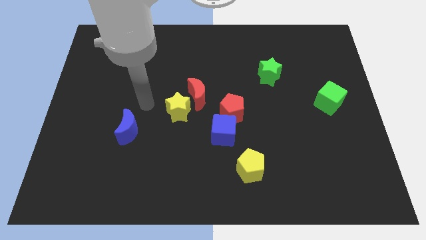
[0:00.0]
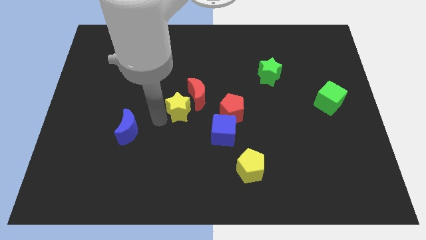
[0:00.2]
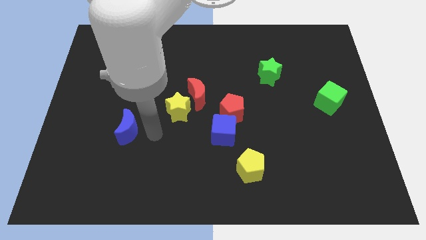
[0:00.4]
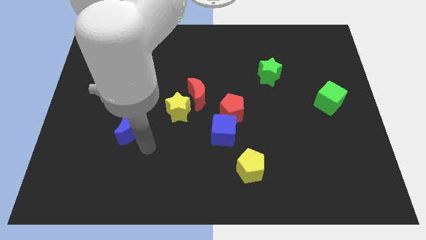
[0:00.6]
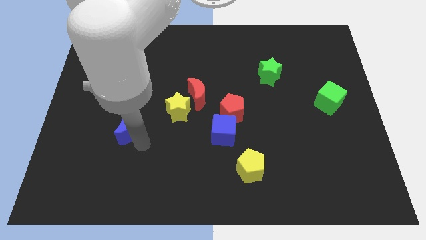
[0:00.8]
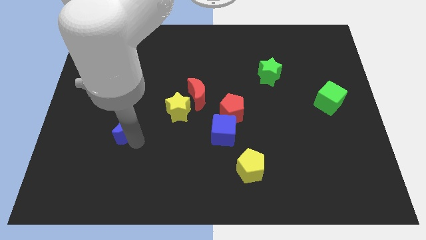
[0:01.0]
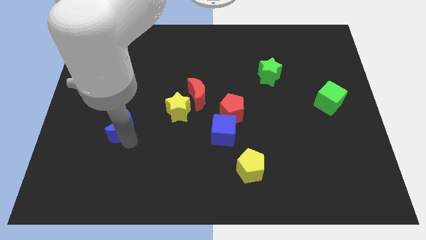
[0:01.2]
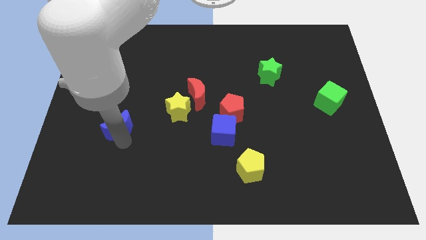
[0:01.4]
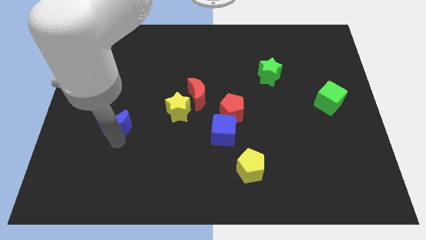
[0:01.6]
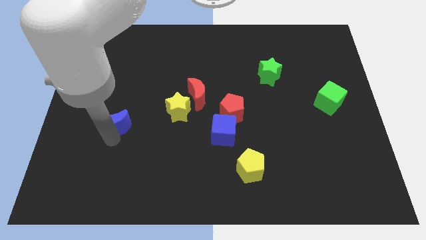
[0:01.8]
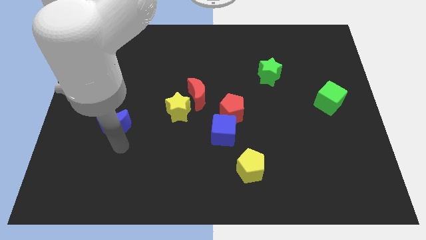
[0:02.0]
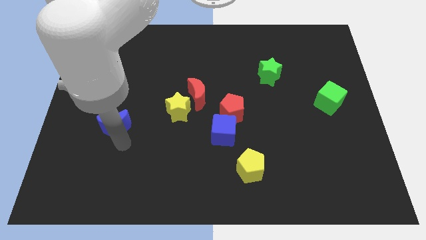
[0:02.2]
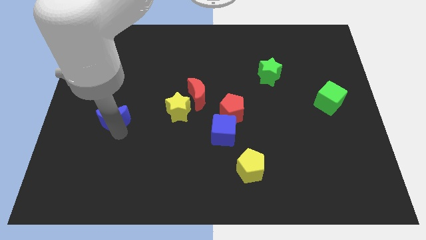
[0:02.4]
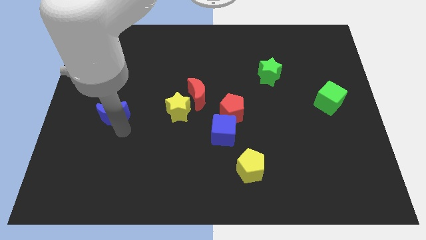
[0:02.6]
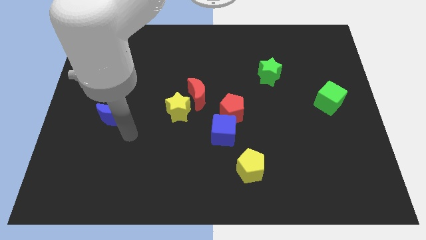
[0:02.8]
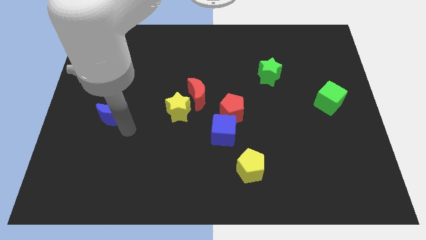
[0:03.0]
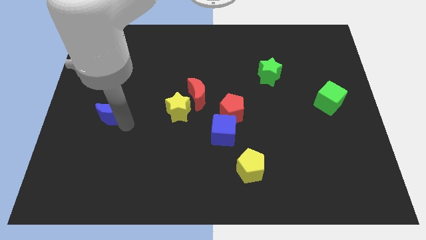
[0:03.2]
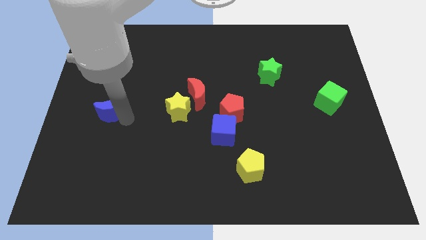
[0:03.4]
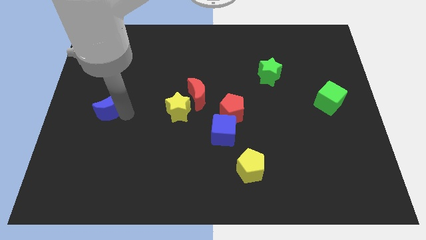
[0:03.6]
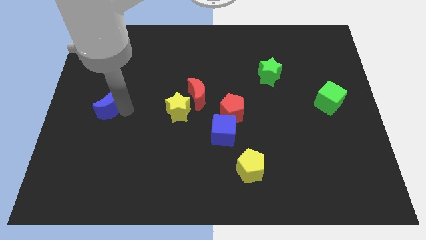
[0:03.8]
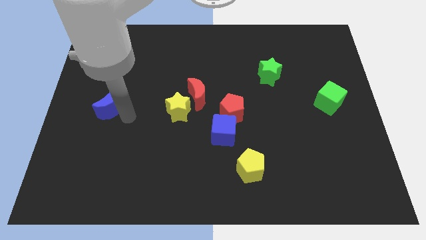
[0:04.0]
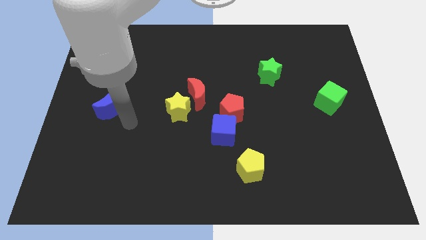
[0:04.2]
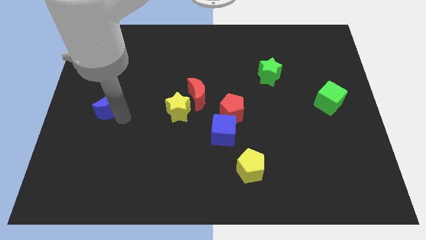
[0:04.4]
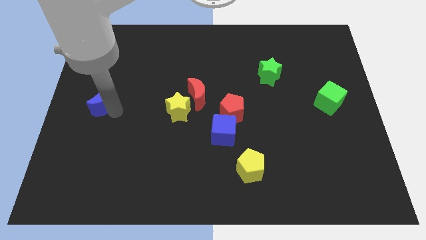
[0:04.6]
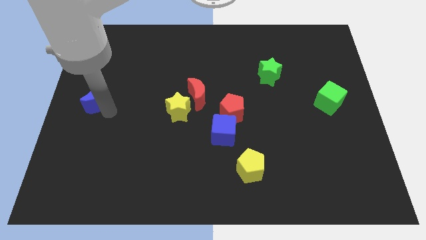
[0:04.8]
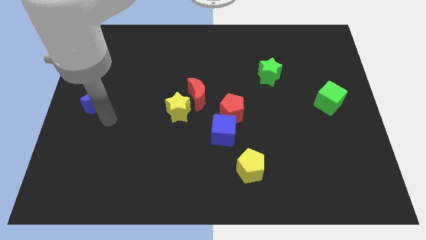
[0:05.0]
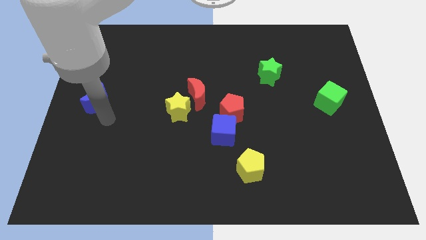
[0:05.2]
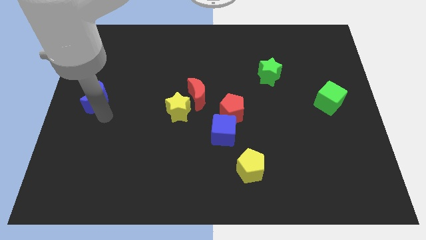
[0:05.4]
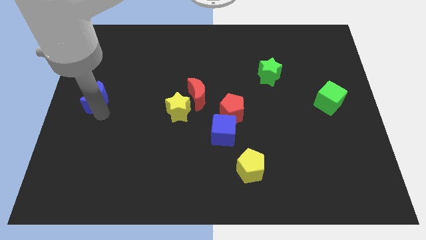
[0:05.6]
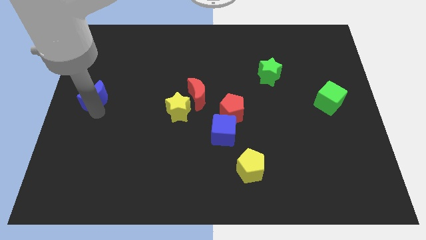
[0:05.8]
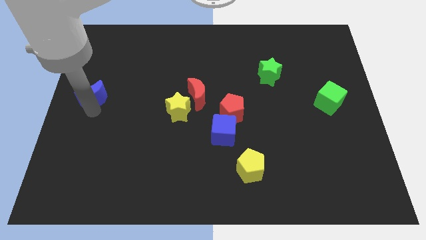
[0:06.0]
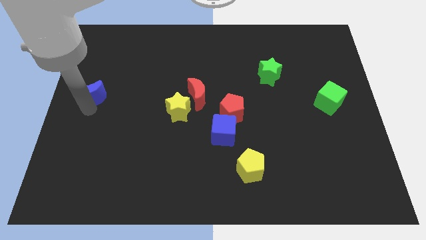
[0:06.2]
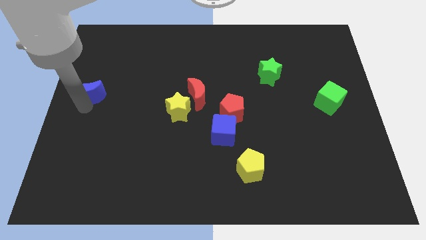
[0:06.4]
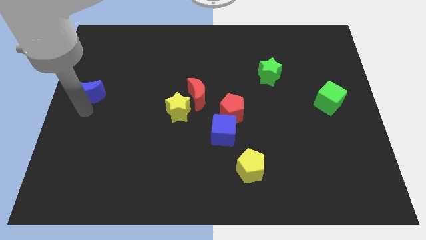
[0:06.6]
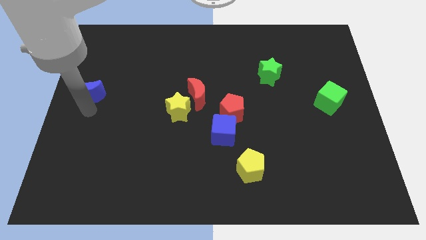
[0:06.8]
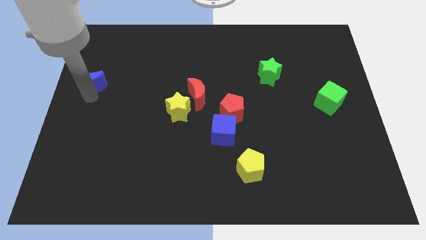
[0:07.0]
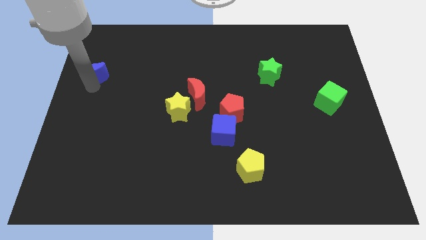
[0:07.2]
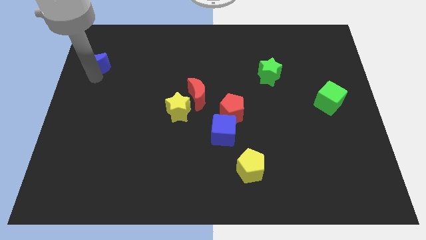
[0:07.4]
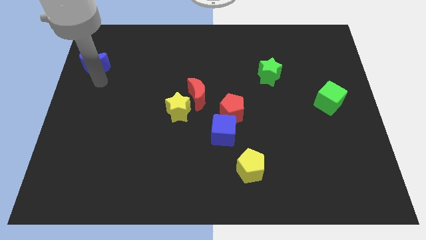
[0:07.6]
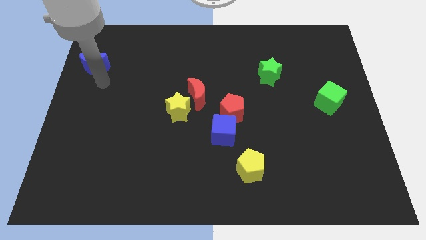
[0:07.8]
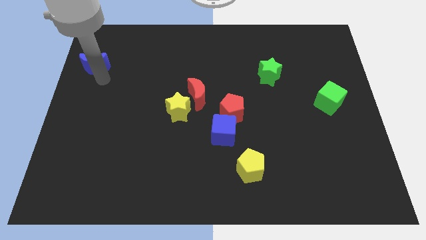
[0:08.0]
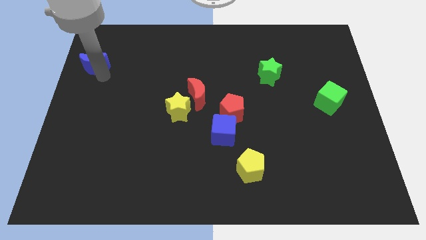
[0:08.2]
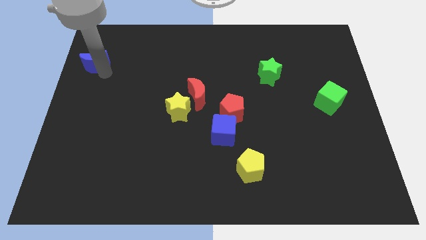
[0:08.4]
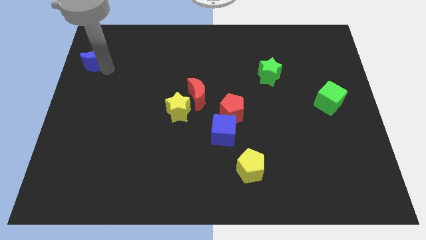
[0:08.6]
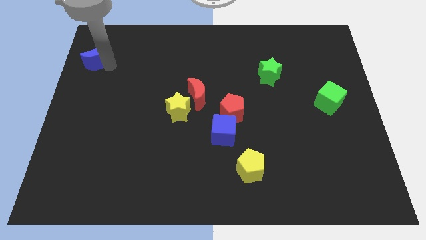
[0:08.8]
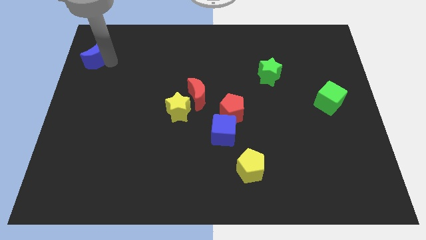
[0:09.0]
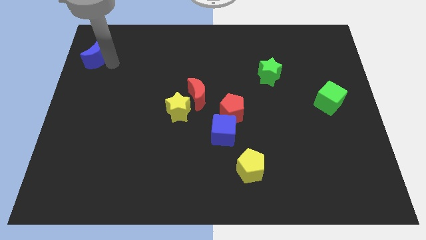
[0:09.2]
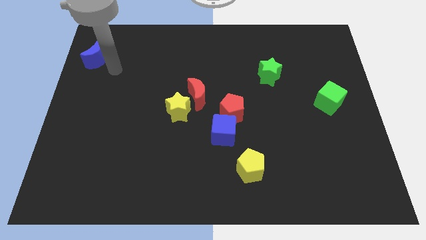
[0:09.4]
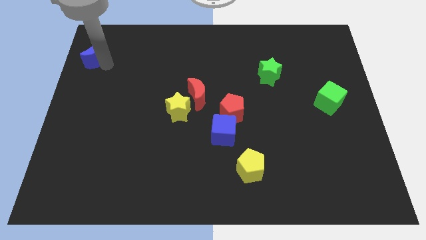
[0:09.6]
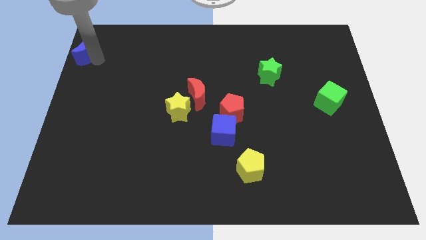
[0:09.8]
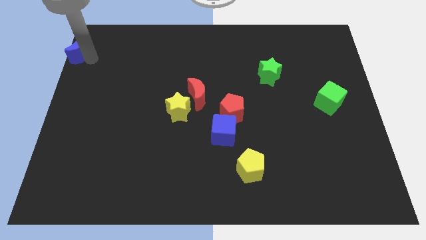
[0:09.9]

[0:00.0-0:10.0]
push the blue moon to the top left

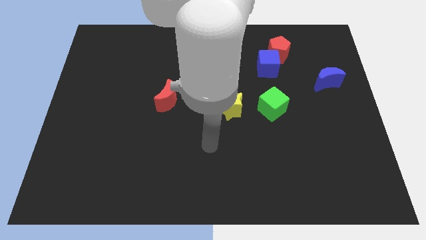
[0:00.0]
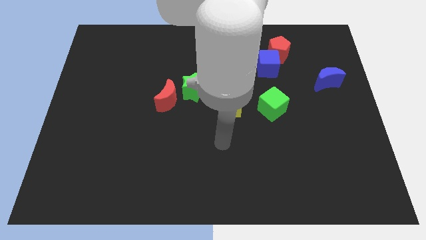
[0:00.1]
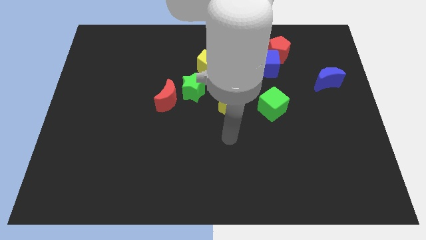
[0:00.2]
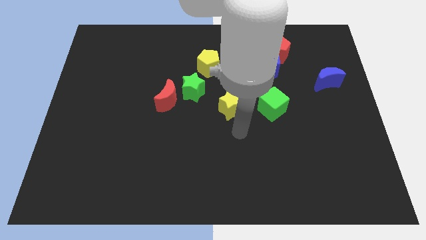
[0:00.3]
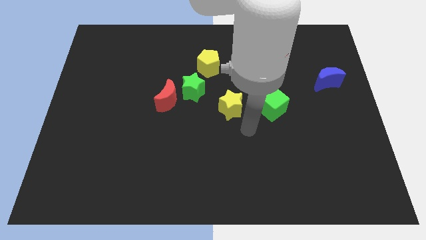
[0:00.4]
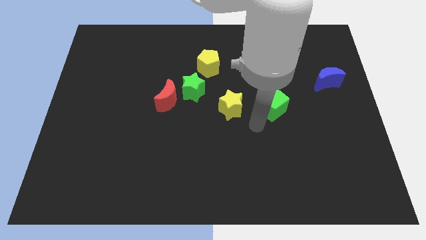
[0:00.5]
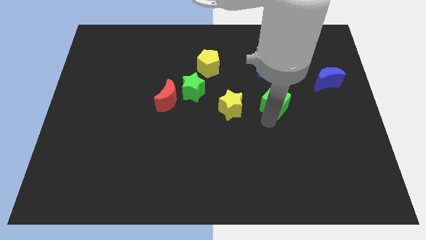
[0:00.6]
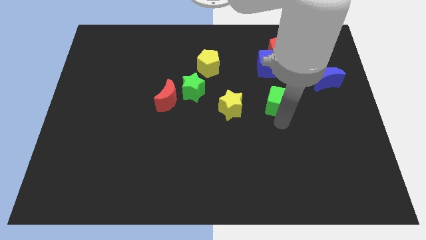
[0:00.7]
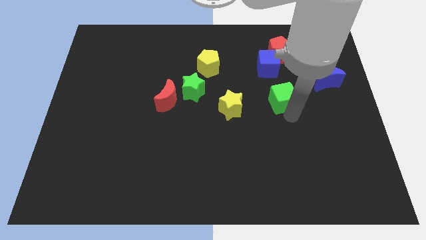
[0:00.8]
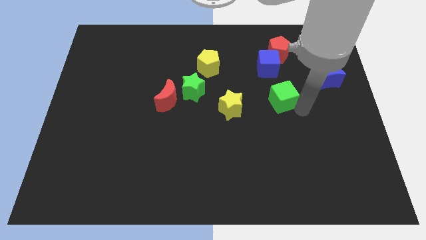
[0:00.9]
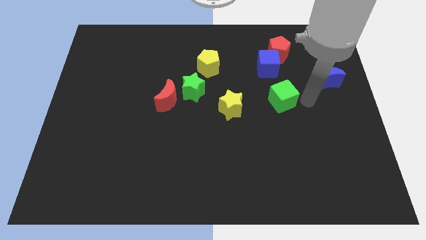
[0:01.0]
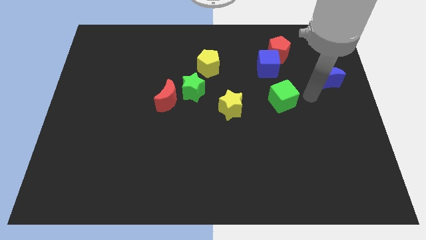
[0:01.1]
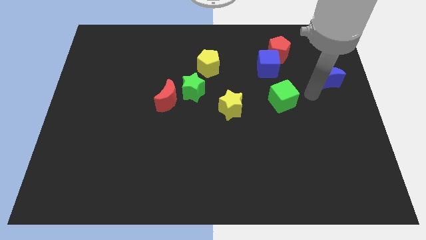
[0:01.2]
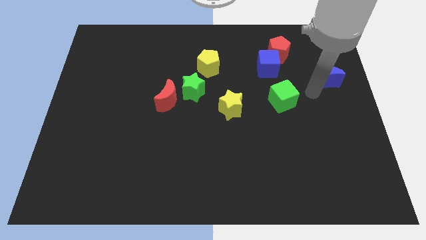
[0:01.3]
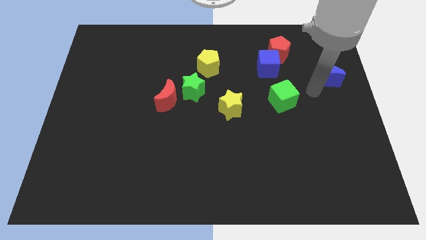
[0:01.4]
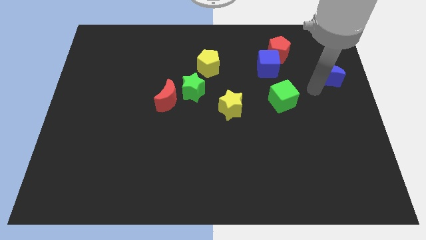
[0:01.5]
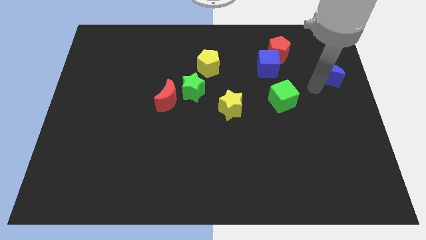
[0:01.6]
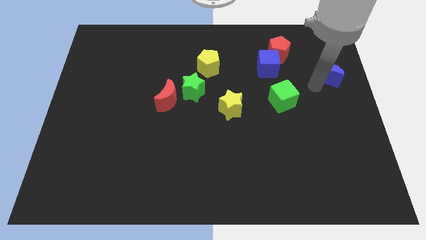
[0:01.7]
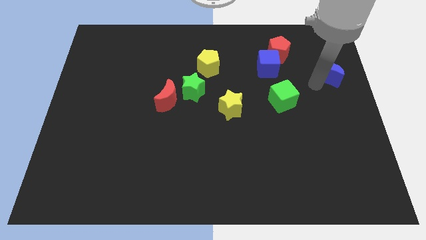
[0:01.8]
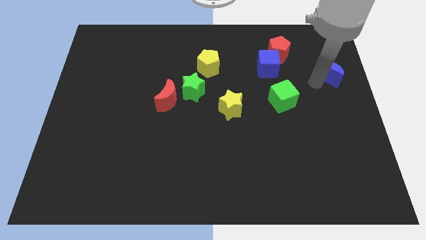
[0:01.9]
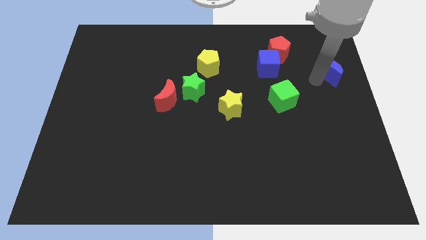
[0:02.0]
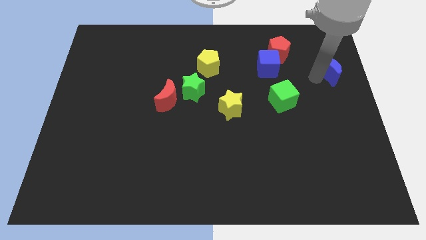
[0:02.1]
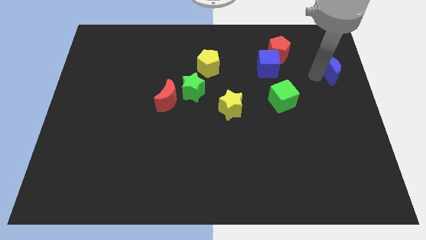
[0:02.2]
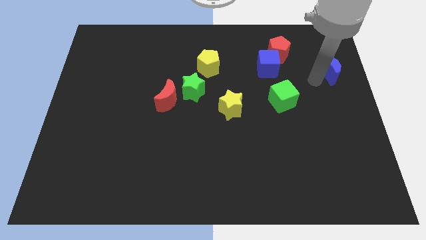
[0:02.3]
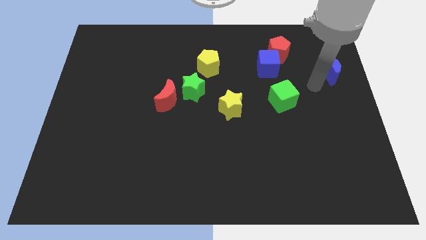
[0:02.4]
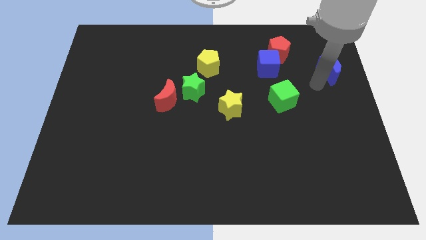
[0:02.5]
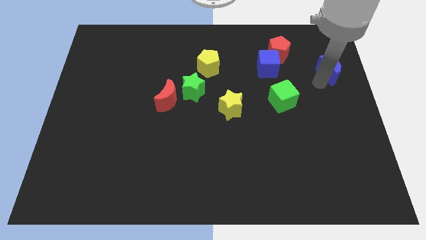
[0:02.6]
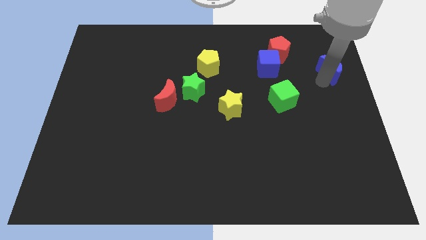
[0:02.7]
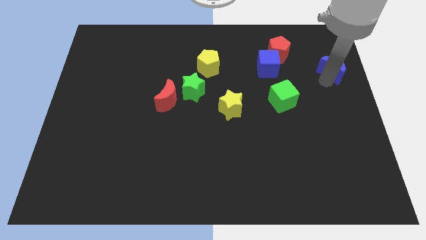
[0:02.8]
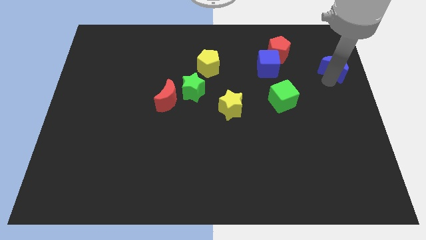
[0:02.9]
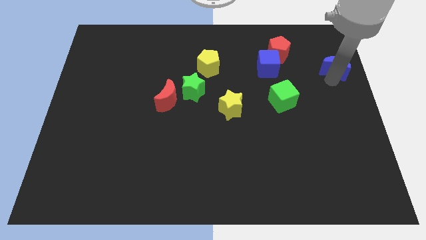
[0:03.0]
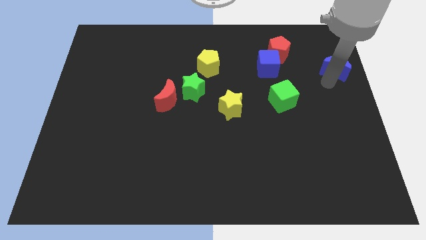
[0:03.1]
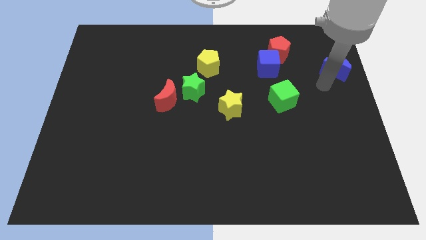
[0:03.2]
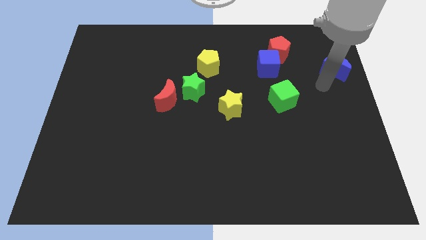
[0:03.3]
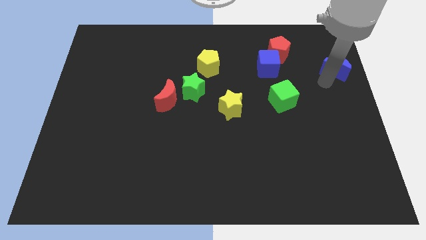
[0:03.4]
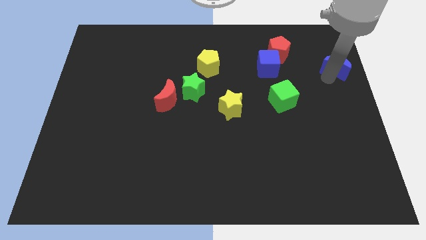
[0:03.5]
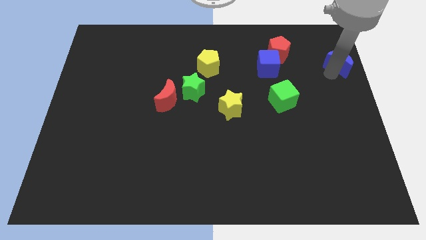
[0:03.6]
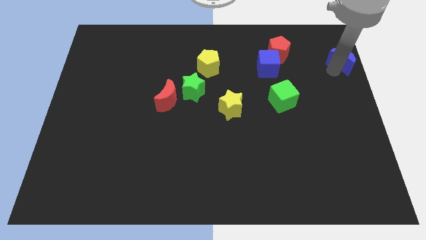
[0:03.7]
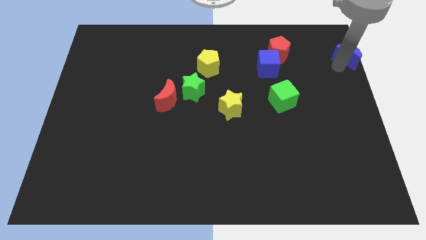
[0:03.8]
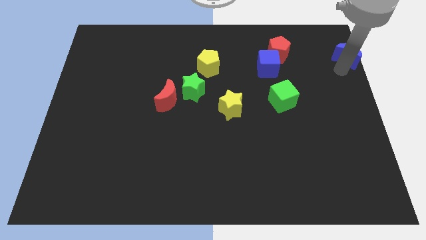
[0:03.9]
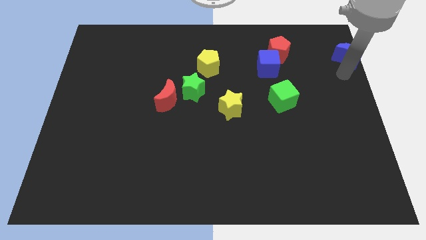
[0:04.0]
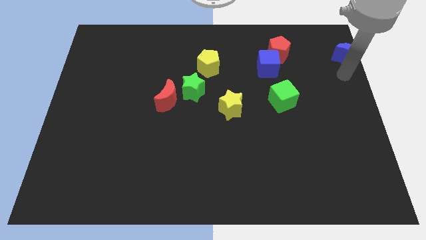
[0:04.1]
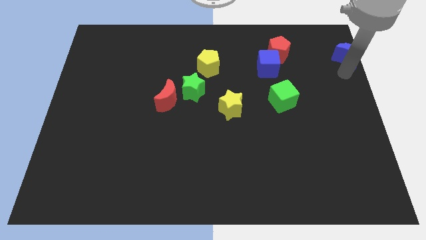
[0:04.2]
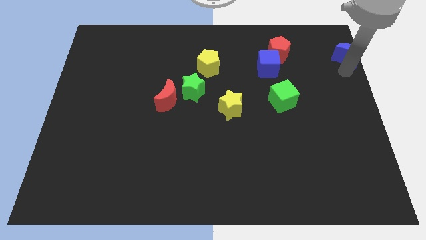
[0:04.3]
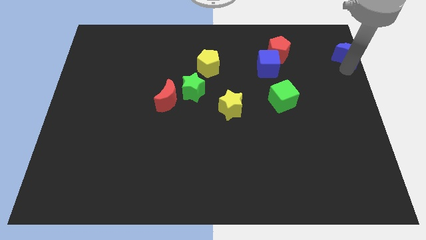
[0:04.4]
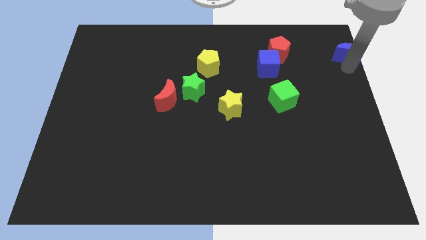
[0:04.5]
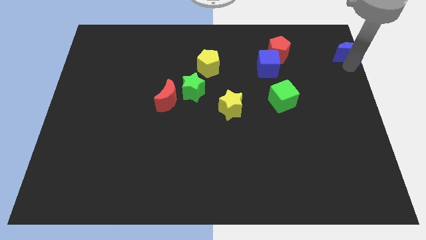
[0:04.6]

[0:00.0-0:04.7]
move the blue moon to the top right
